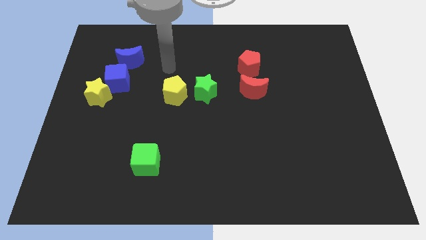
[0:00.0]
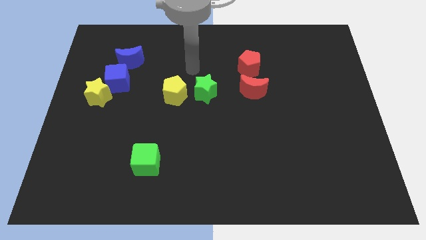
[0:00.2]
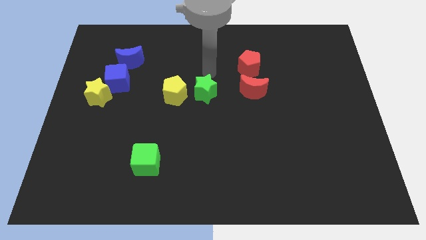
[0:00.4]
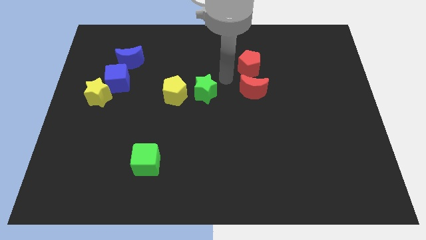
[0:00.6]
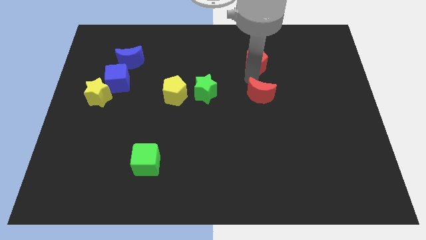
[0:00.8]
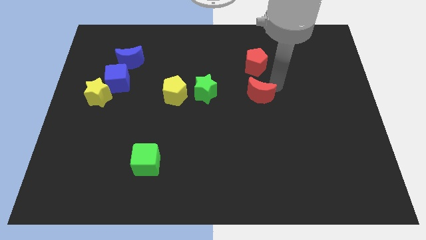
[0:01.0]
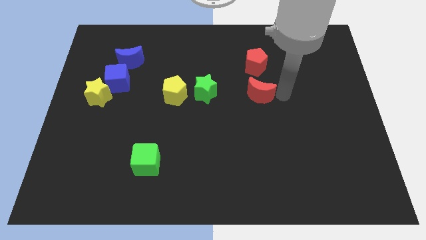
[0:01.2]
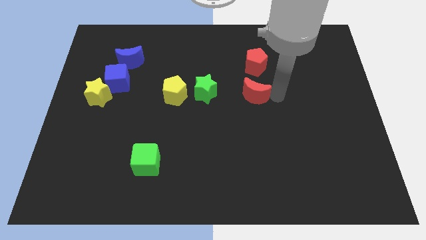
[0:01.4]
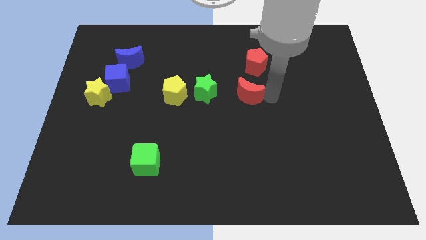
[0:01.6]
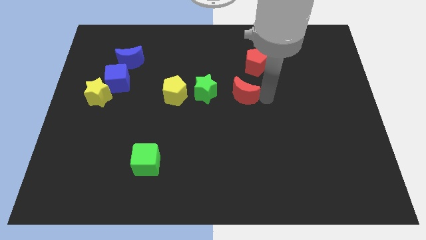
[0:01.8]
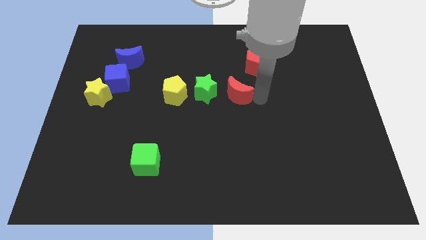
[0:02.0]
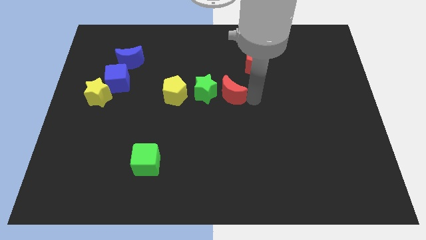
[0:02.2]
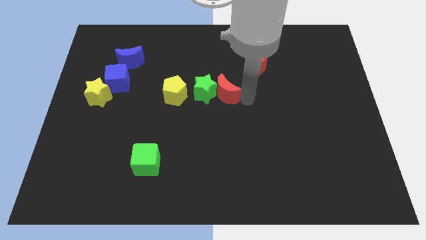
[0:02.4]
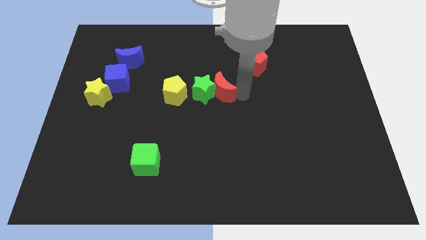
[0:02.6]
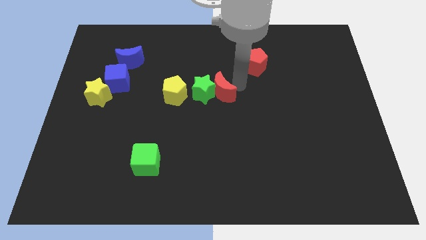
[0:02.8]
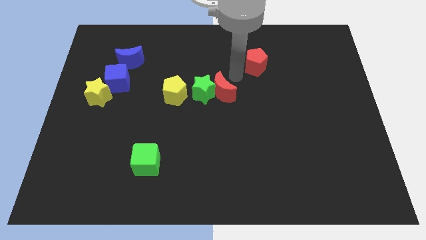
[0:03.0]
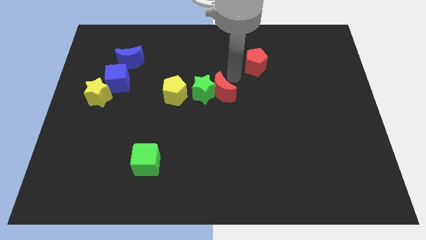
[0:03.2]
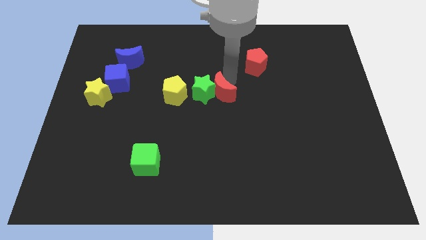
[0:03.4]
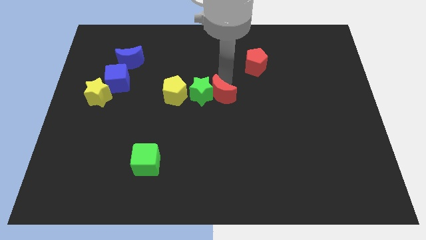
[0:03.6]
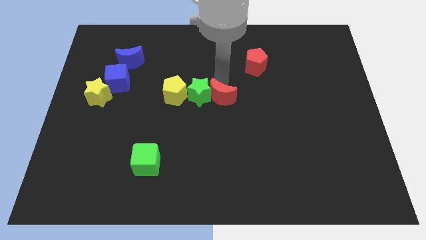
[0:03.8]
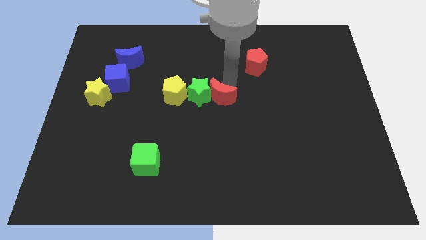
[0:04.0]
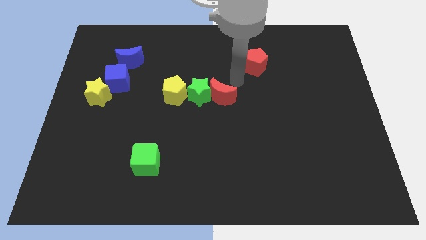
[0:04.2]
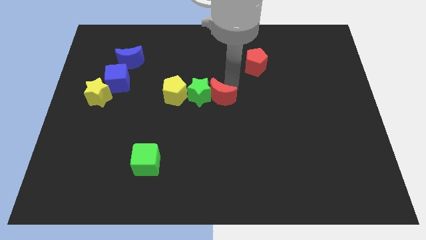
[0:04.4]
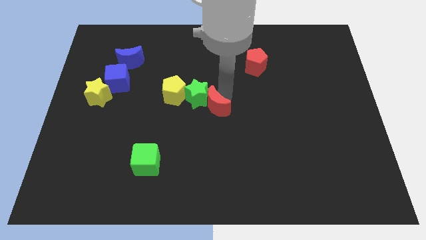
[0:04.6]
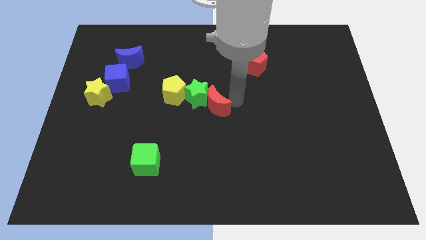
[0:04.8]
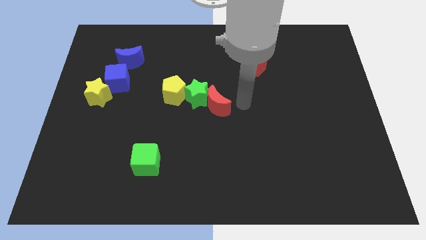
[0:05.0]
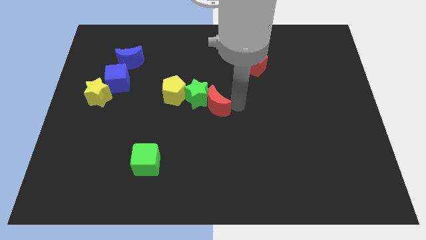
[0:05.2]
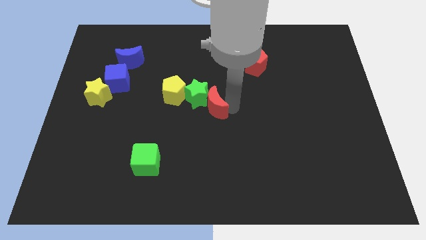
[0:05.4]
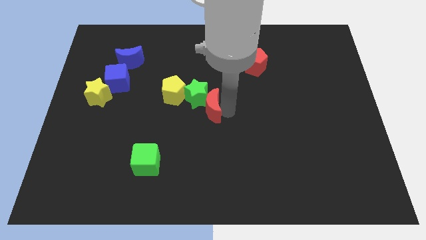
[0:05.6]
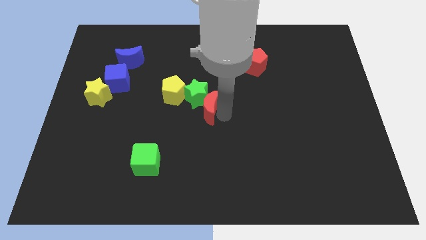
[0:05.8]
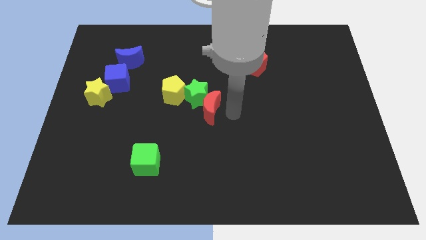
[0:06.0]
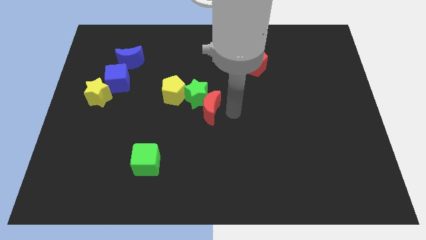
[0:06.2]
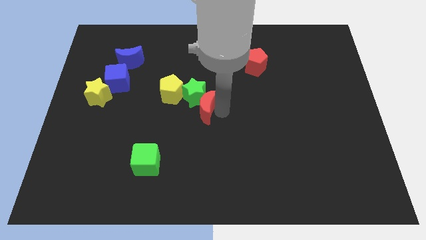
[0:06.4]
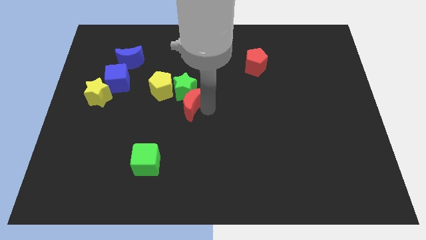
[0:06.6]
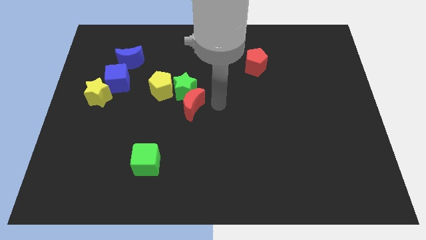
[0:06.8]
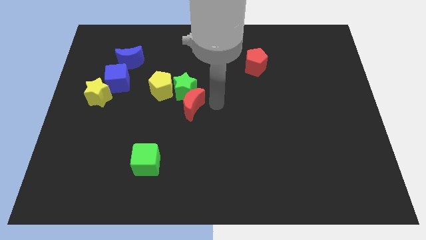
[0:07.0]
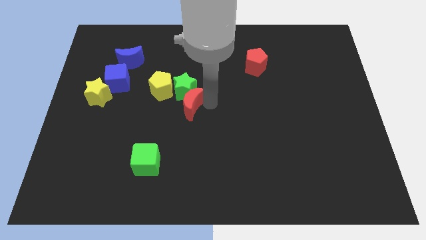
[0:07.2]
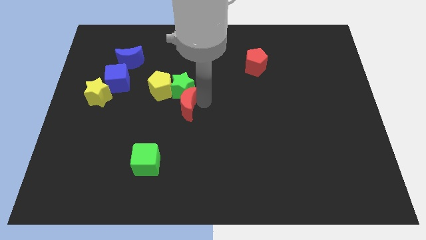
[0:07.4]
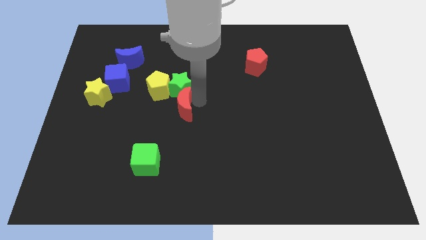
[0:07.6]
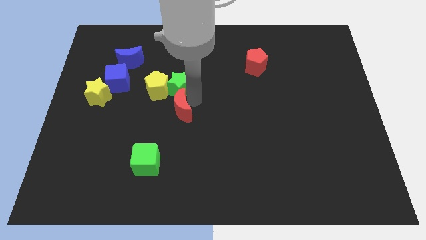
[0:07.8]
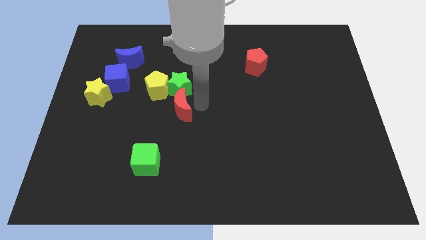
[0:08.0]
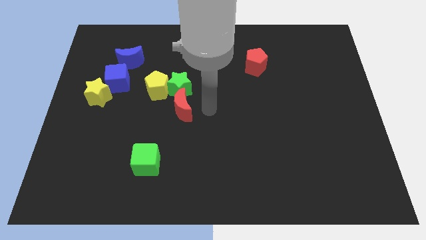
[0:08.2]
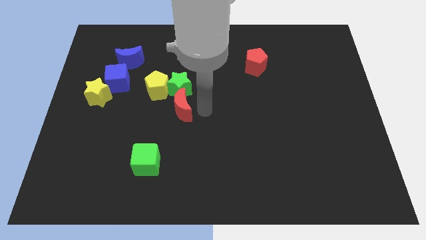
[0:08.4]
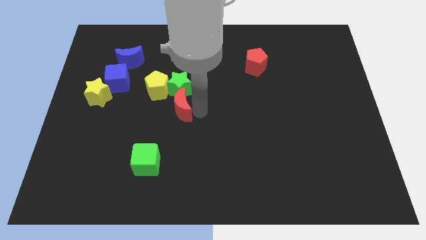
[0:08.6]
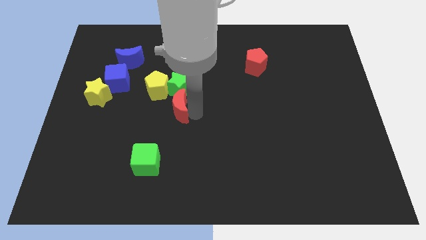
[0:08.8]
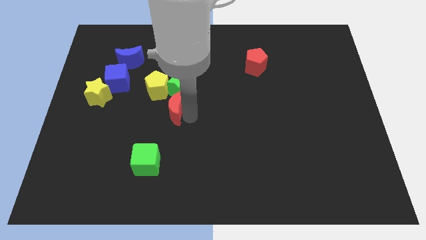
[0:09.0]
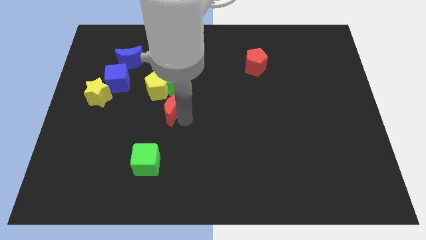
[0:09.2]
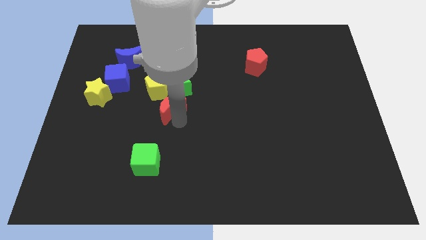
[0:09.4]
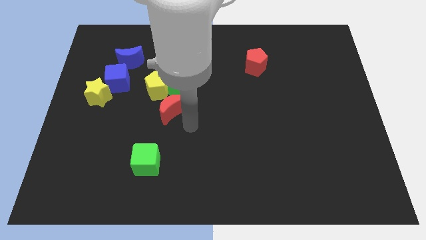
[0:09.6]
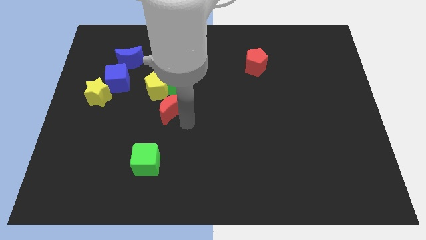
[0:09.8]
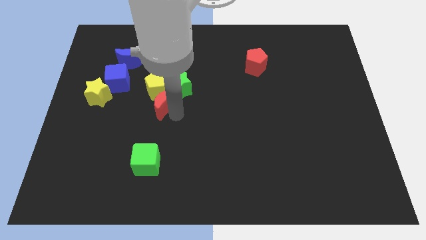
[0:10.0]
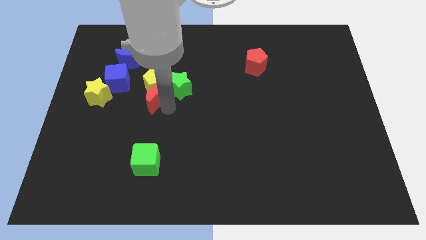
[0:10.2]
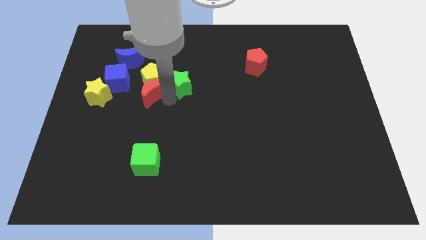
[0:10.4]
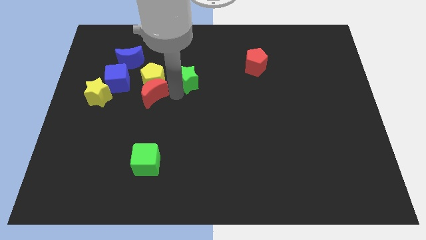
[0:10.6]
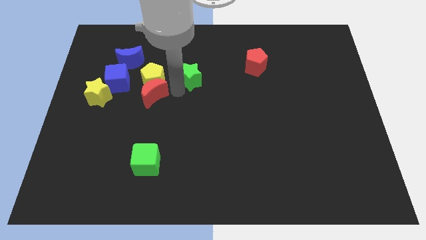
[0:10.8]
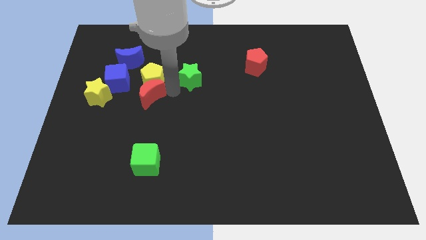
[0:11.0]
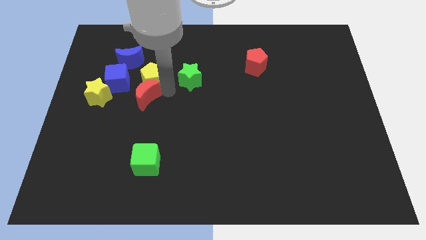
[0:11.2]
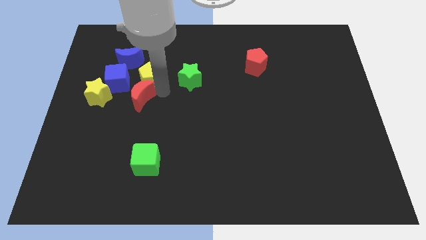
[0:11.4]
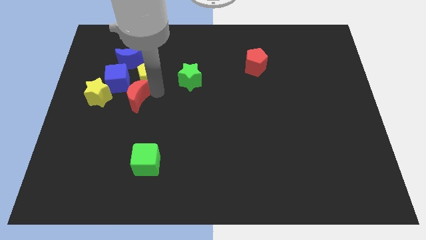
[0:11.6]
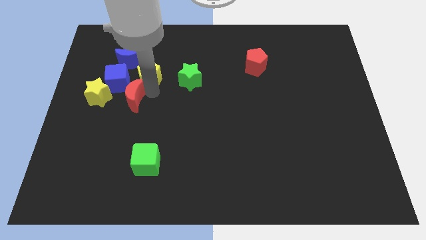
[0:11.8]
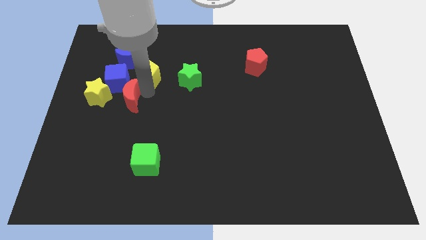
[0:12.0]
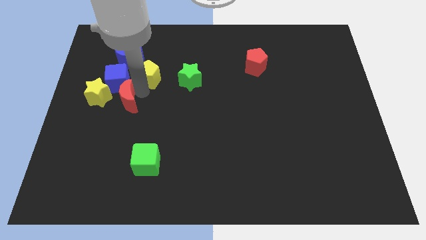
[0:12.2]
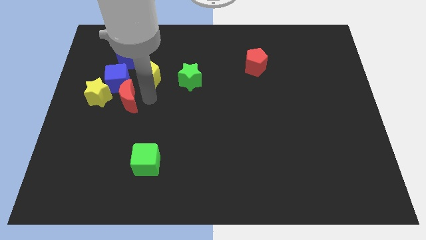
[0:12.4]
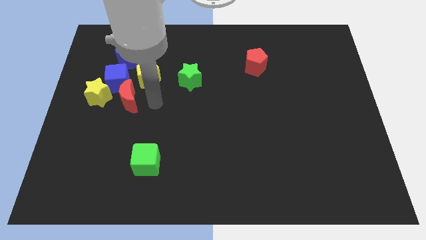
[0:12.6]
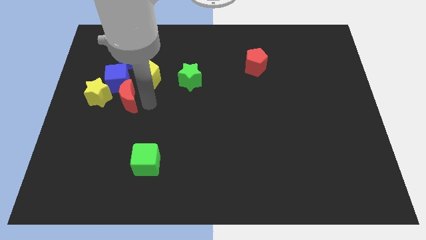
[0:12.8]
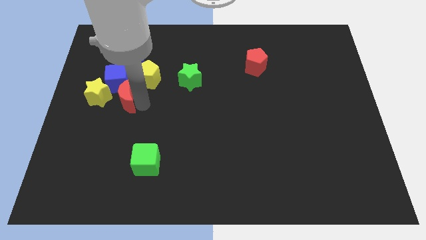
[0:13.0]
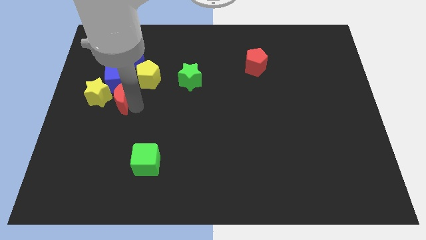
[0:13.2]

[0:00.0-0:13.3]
slide the red moon towards the yellow star
